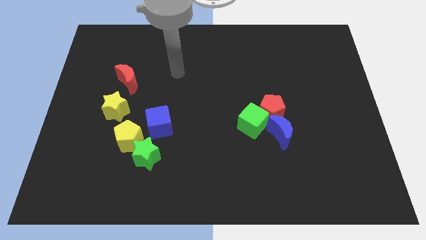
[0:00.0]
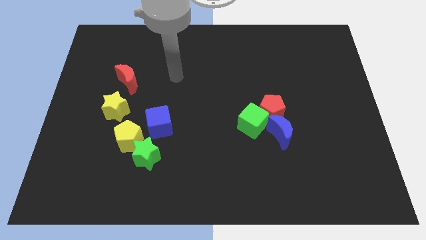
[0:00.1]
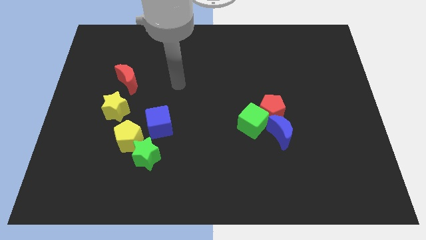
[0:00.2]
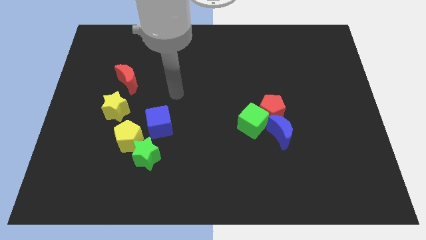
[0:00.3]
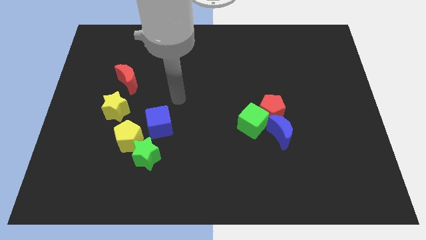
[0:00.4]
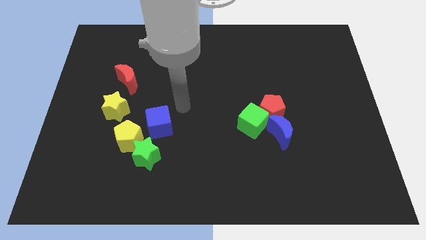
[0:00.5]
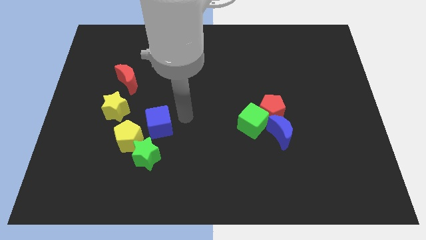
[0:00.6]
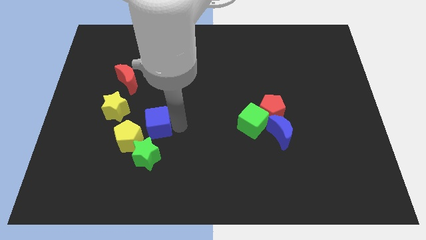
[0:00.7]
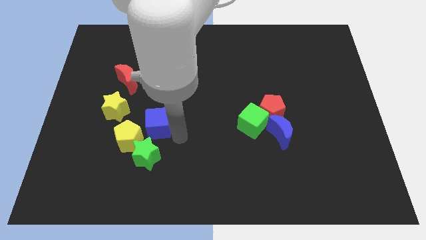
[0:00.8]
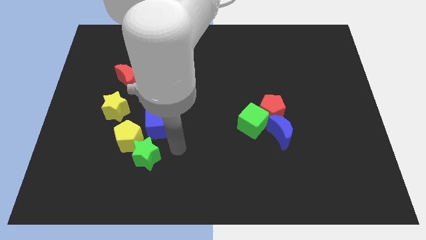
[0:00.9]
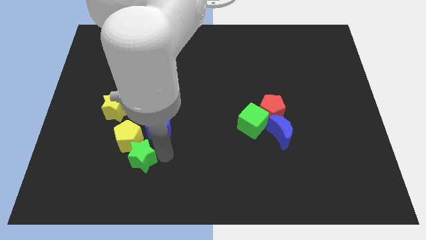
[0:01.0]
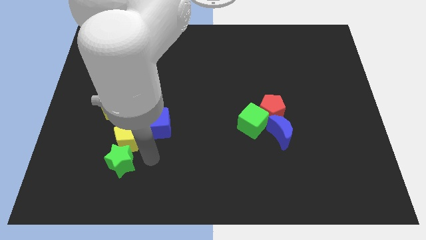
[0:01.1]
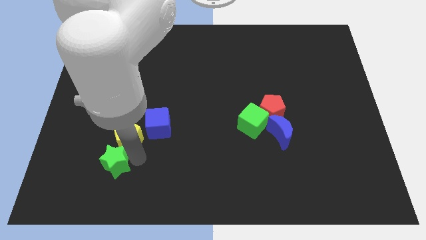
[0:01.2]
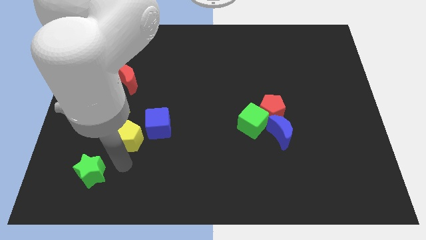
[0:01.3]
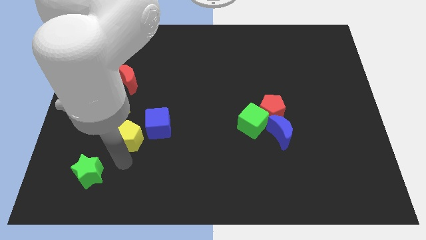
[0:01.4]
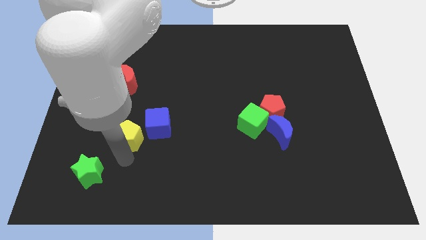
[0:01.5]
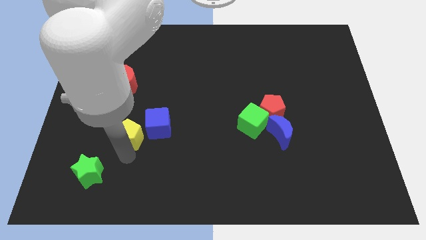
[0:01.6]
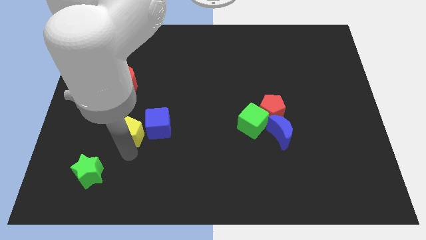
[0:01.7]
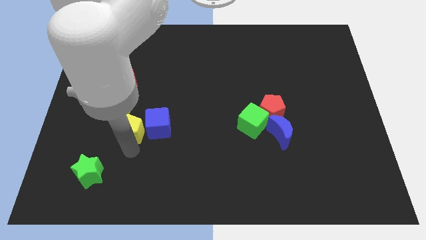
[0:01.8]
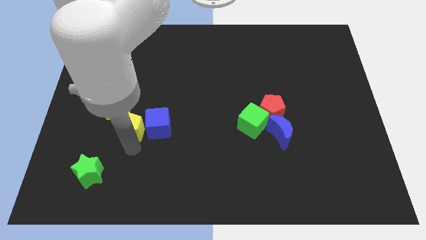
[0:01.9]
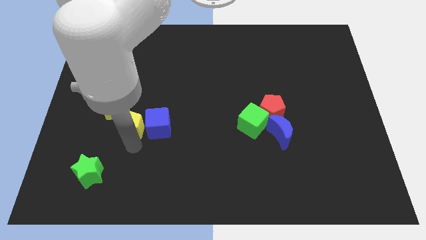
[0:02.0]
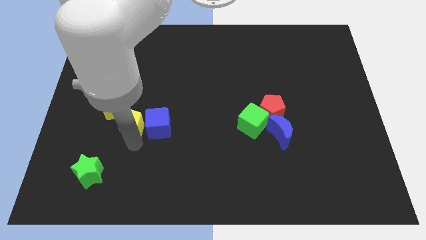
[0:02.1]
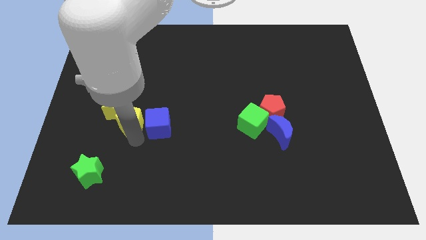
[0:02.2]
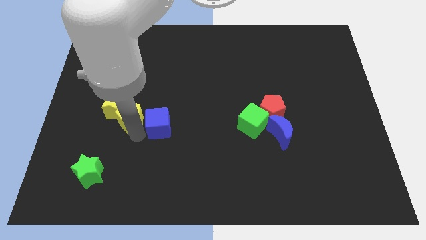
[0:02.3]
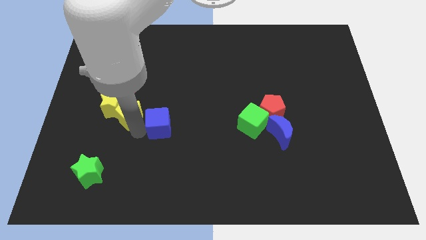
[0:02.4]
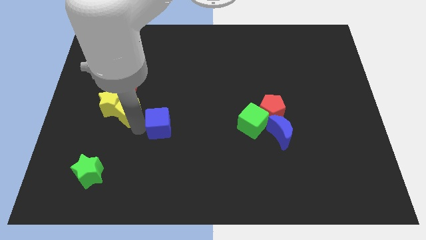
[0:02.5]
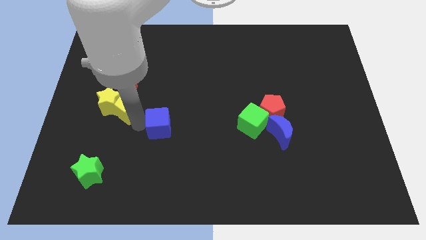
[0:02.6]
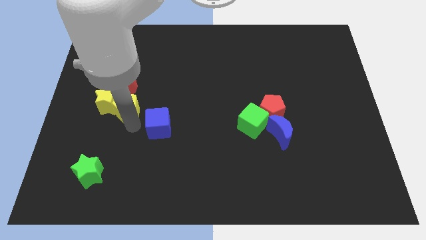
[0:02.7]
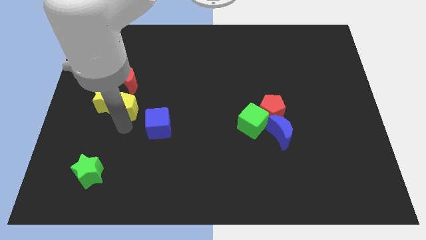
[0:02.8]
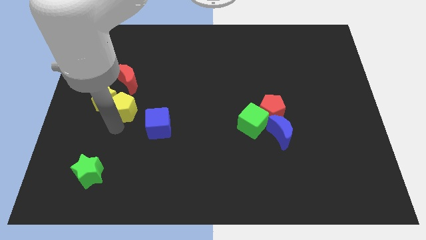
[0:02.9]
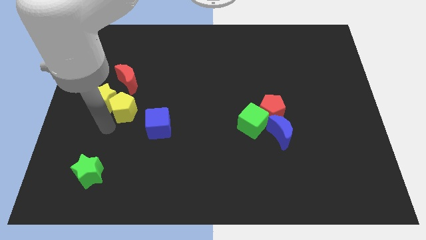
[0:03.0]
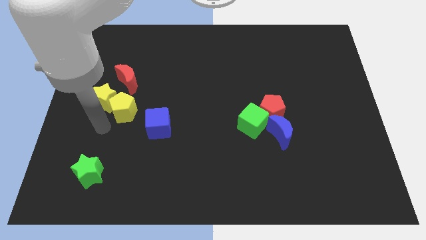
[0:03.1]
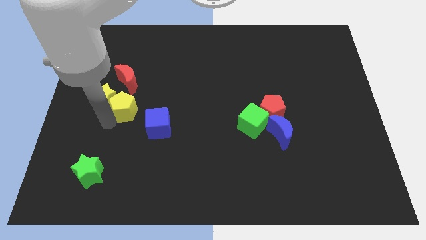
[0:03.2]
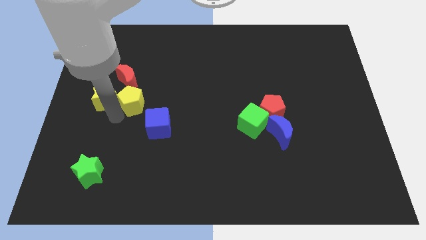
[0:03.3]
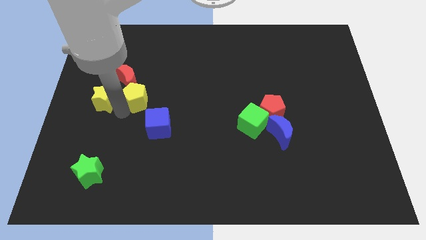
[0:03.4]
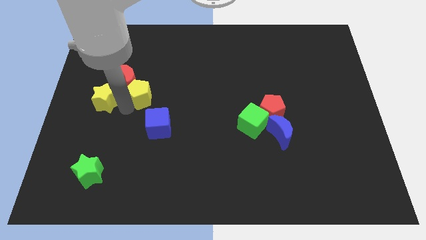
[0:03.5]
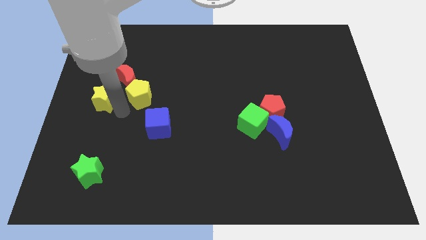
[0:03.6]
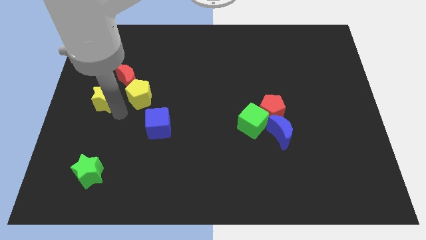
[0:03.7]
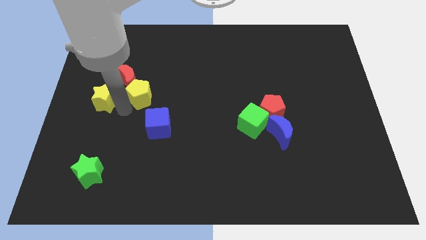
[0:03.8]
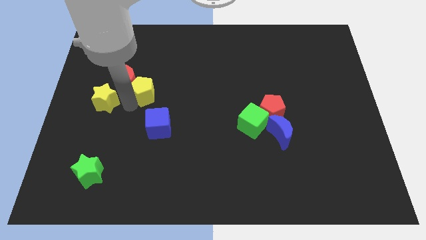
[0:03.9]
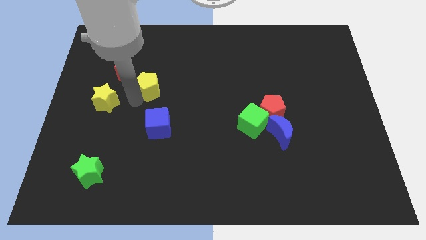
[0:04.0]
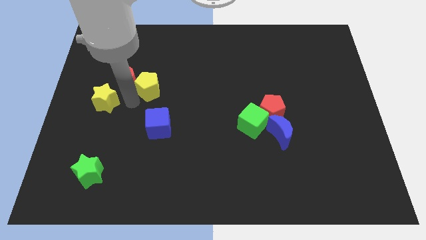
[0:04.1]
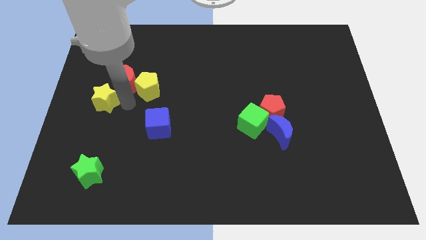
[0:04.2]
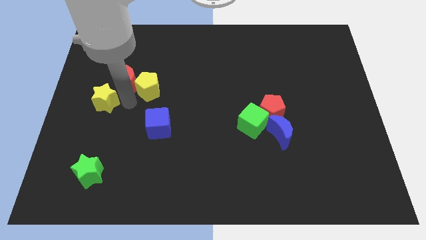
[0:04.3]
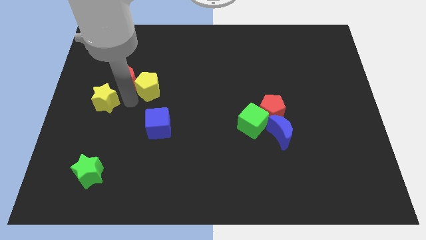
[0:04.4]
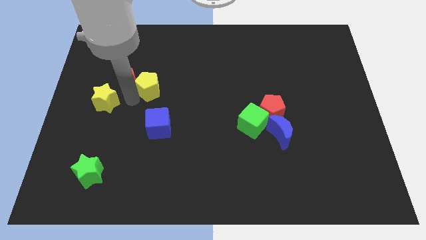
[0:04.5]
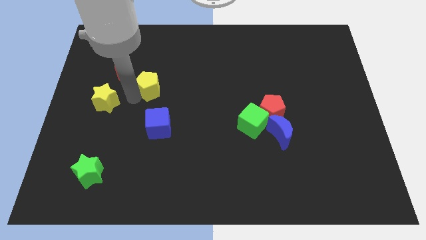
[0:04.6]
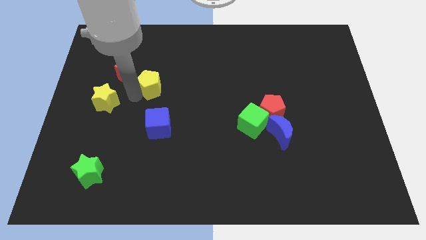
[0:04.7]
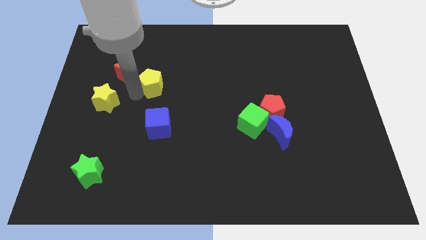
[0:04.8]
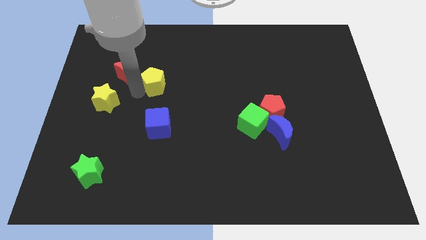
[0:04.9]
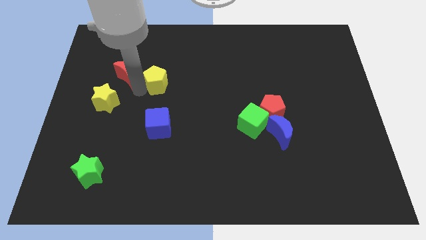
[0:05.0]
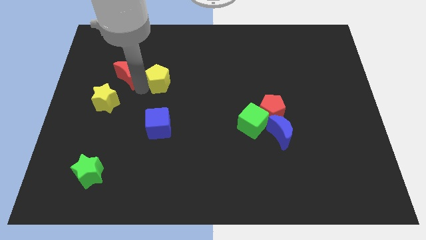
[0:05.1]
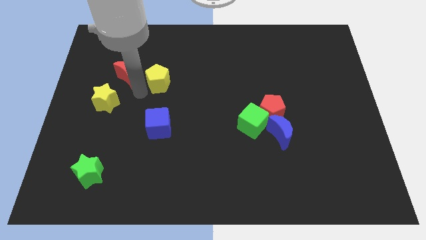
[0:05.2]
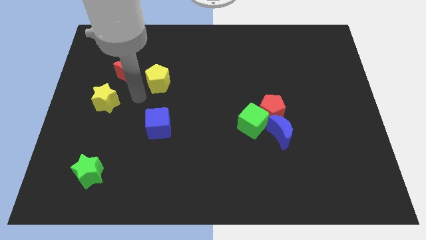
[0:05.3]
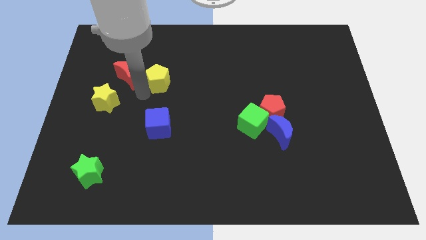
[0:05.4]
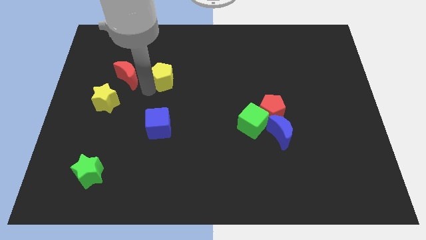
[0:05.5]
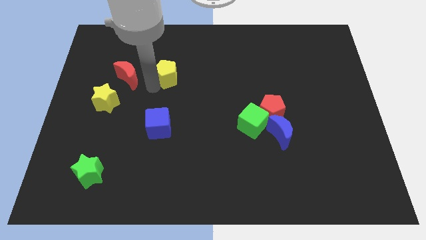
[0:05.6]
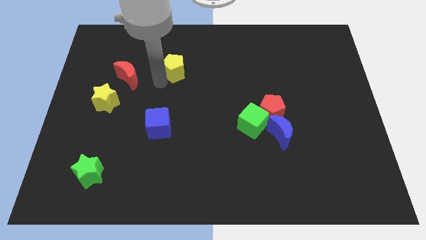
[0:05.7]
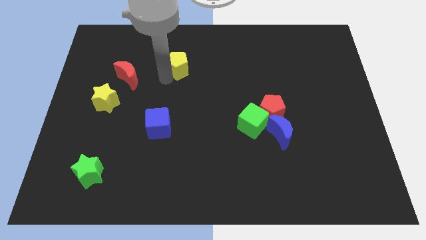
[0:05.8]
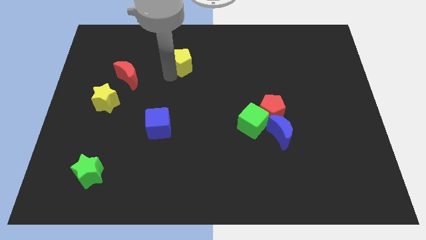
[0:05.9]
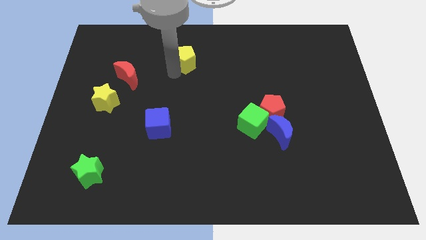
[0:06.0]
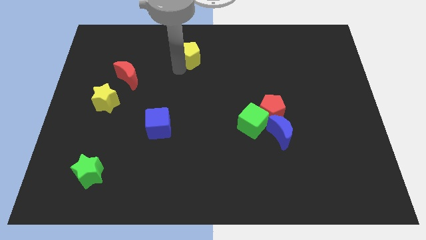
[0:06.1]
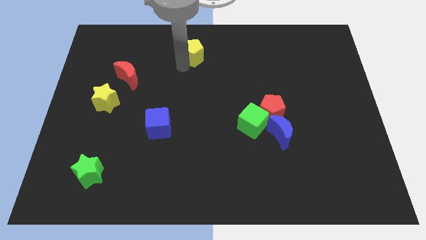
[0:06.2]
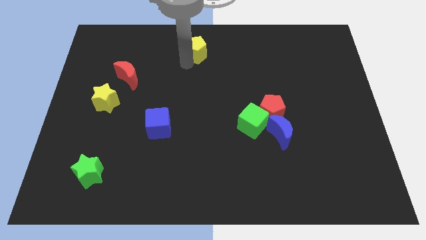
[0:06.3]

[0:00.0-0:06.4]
slide the yellow pentagon to the towards your base

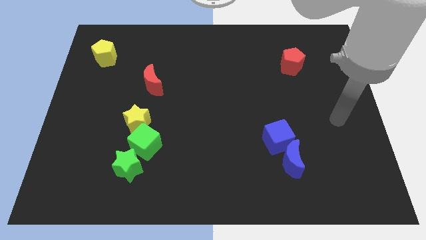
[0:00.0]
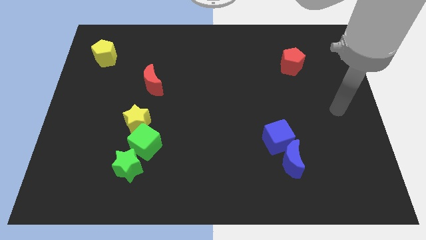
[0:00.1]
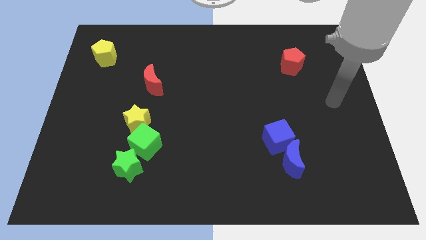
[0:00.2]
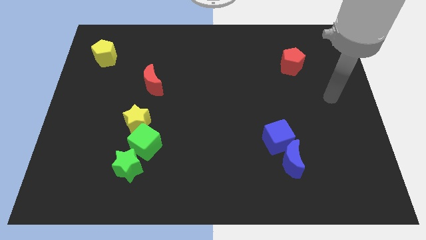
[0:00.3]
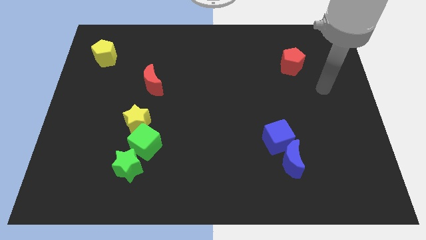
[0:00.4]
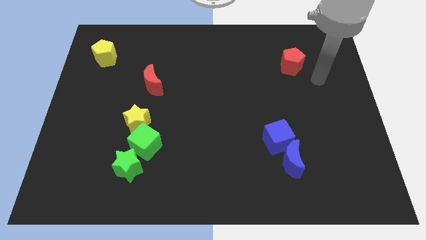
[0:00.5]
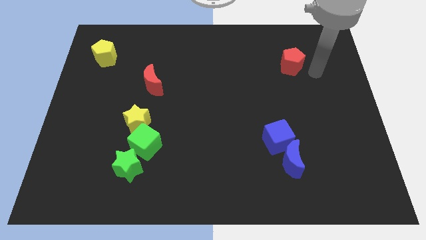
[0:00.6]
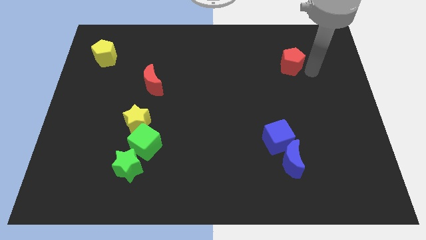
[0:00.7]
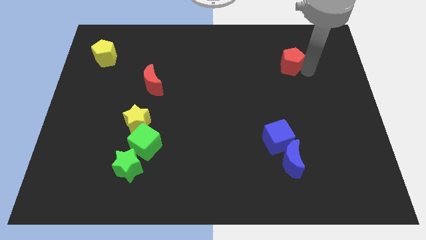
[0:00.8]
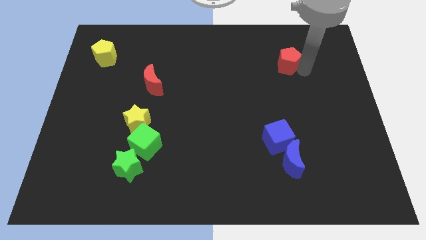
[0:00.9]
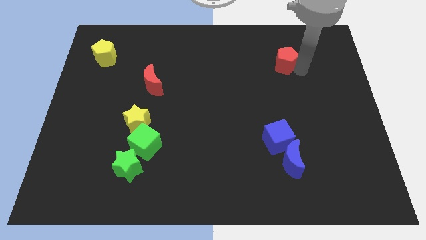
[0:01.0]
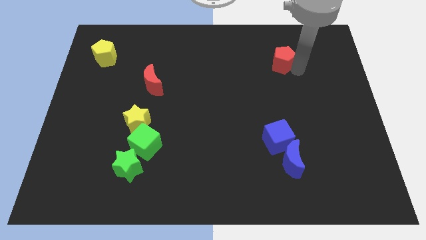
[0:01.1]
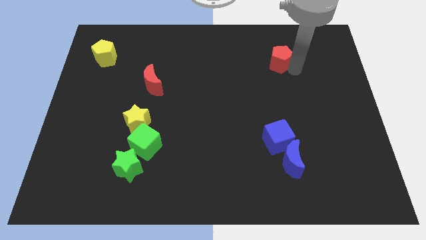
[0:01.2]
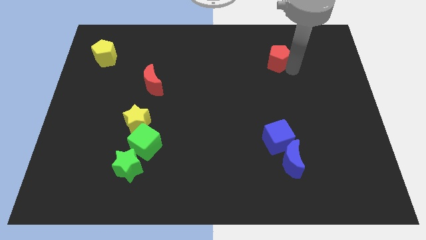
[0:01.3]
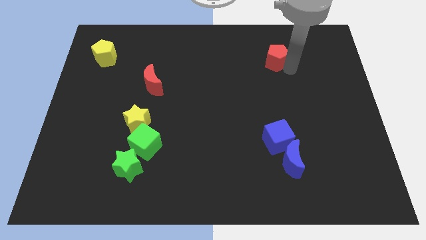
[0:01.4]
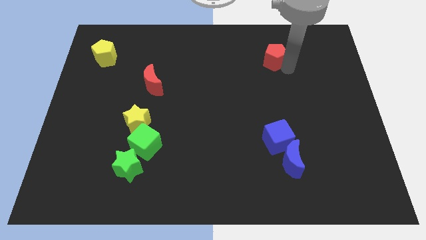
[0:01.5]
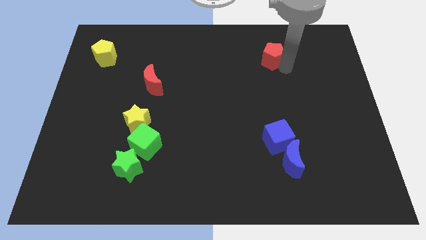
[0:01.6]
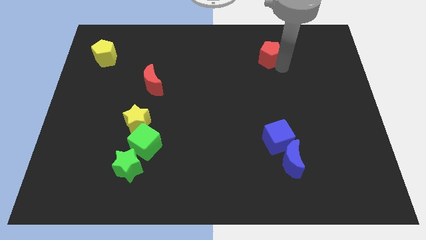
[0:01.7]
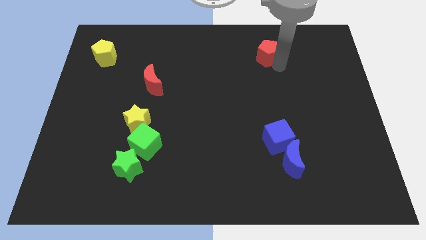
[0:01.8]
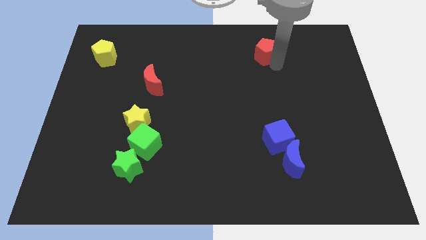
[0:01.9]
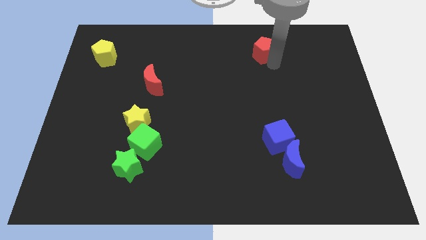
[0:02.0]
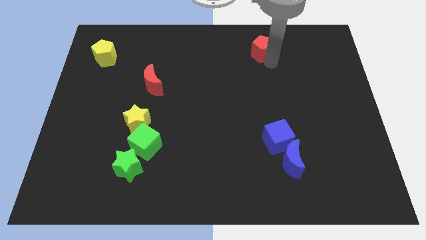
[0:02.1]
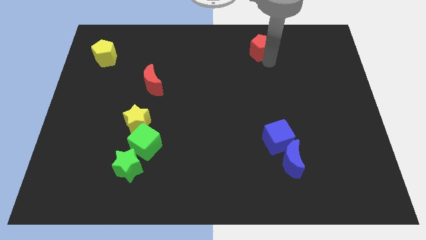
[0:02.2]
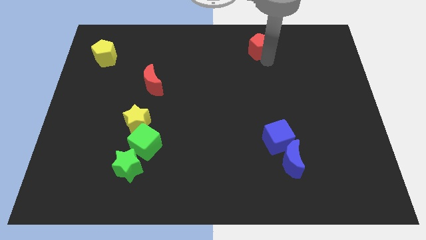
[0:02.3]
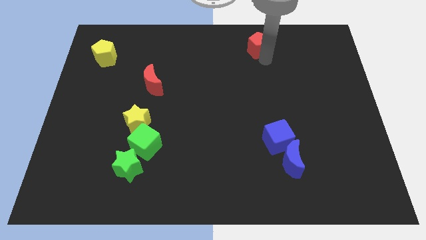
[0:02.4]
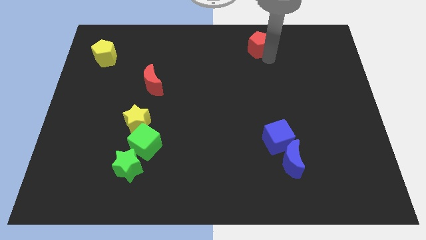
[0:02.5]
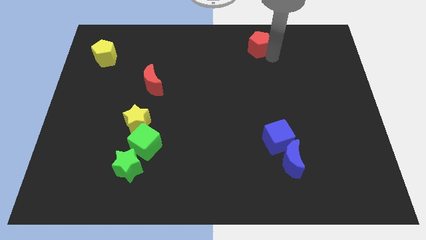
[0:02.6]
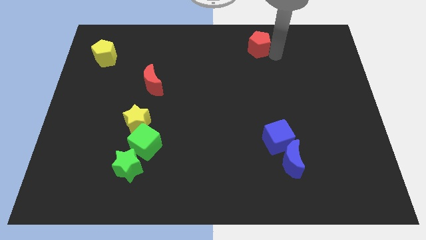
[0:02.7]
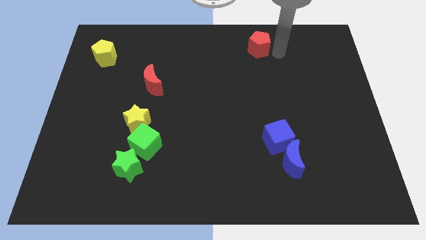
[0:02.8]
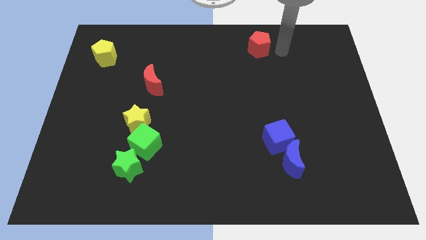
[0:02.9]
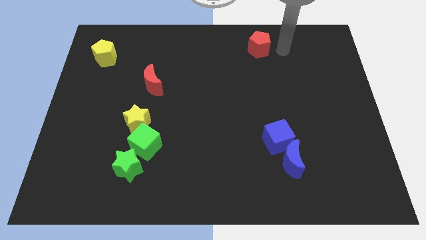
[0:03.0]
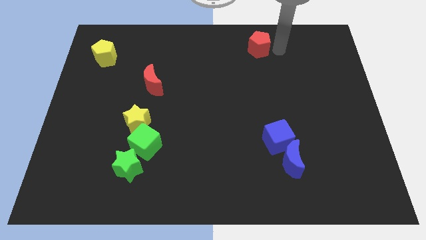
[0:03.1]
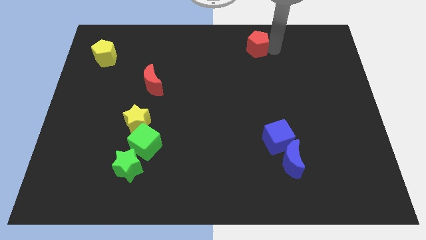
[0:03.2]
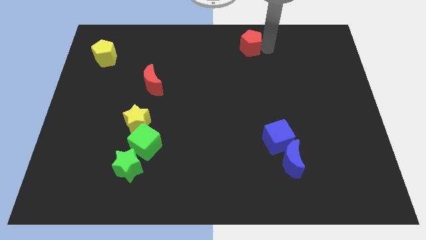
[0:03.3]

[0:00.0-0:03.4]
push the red pentagon to the towards your base
